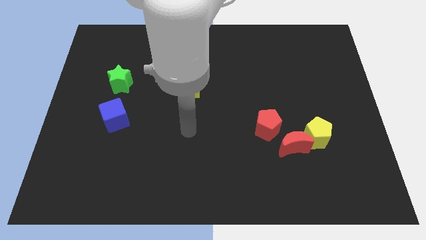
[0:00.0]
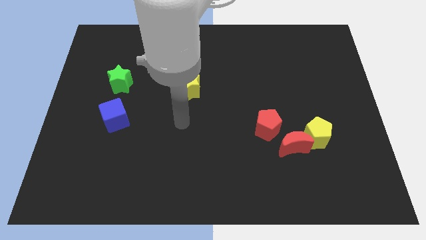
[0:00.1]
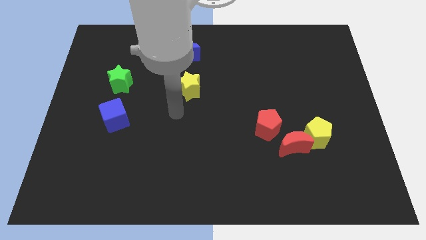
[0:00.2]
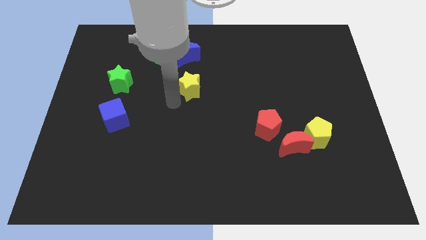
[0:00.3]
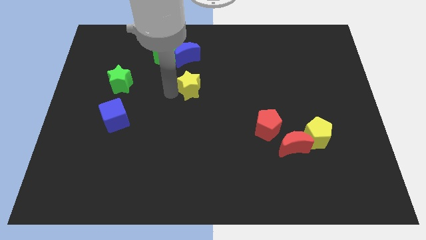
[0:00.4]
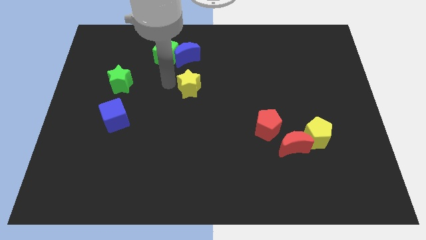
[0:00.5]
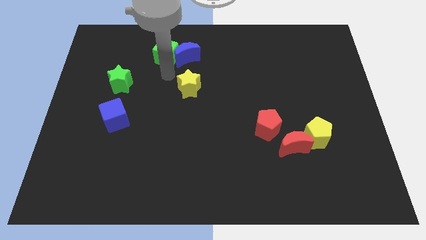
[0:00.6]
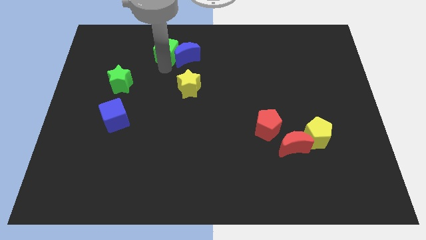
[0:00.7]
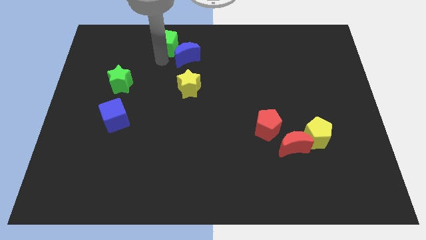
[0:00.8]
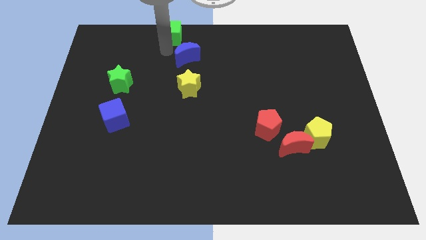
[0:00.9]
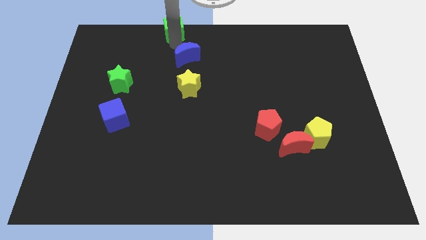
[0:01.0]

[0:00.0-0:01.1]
move the blue moon away from the green cube

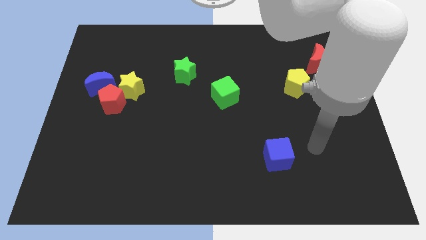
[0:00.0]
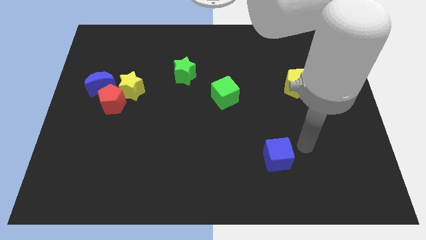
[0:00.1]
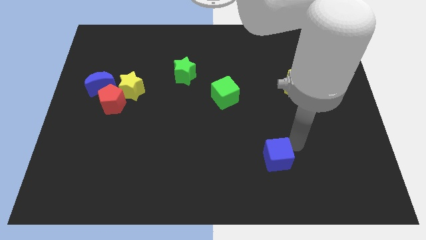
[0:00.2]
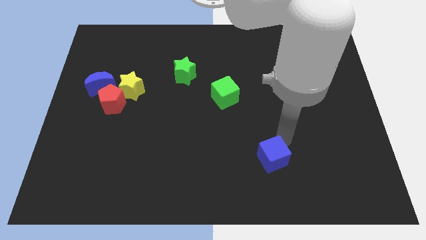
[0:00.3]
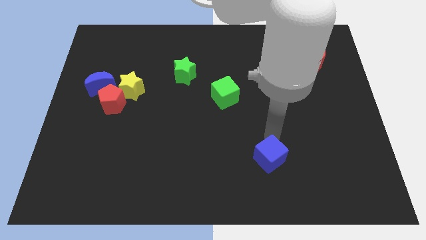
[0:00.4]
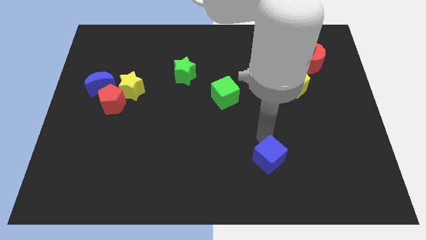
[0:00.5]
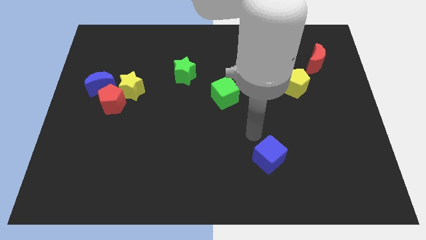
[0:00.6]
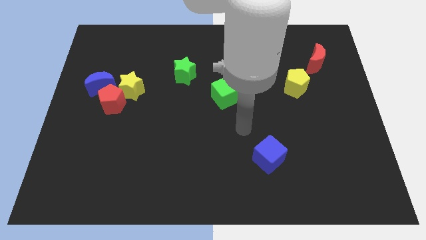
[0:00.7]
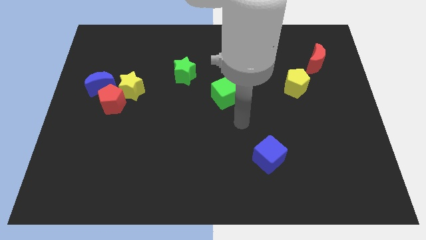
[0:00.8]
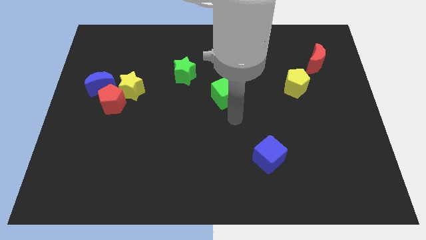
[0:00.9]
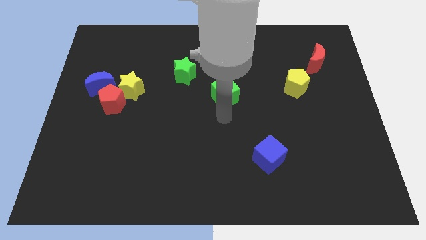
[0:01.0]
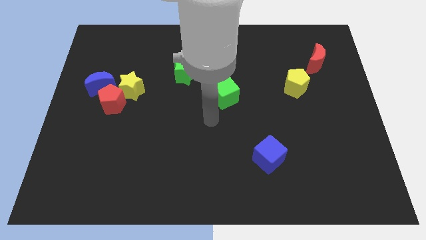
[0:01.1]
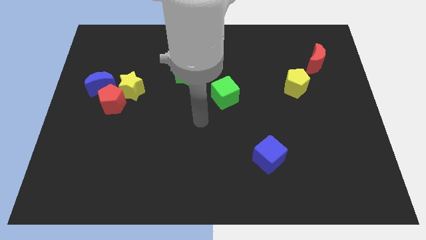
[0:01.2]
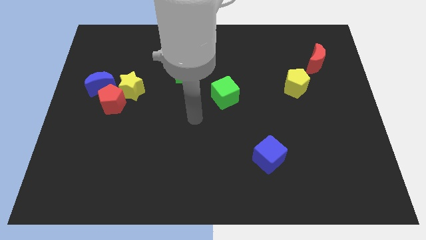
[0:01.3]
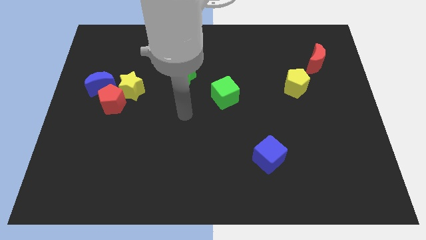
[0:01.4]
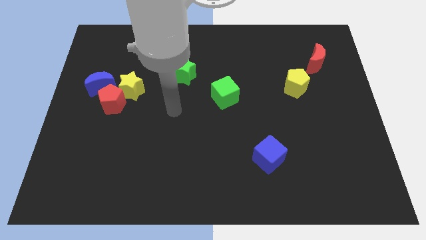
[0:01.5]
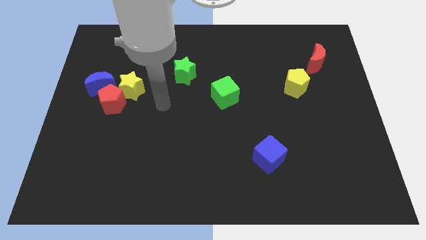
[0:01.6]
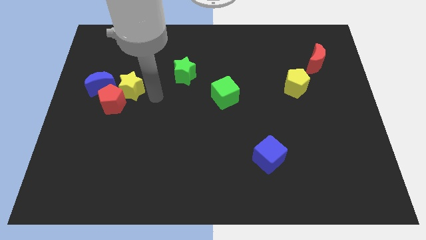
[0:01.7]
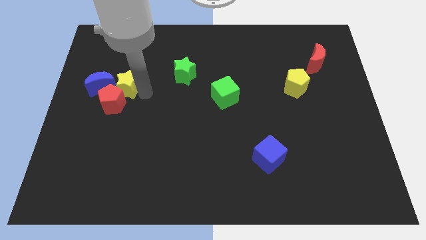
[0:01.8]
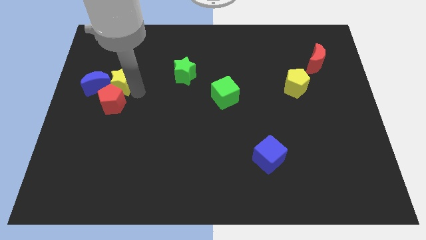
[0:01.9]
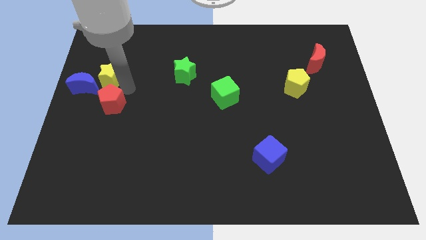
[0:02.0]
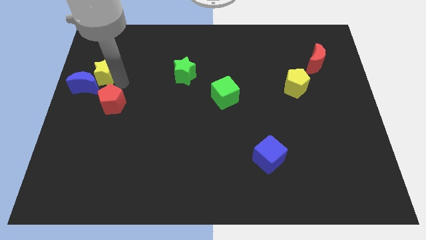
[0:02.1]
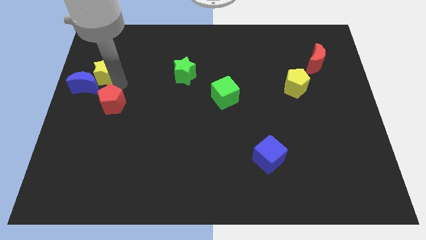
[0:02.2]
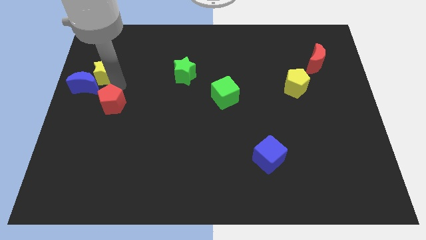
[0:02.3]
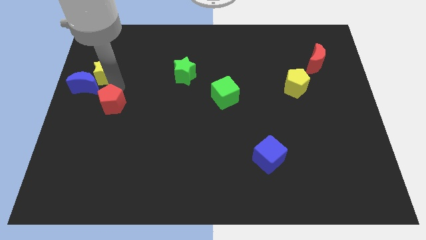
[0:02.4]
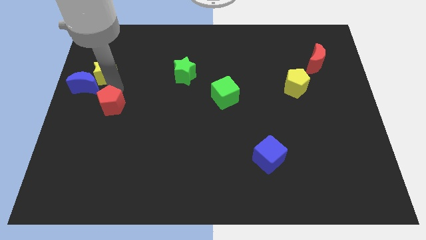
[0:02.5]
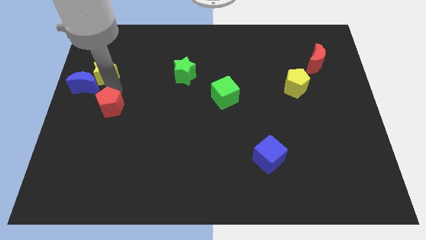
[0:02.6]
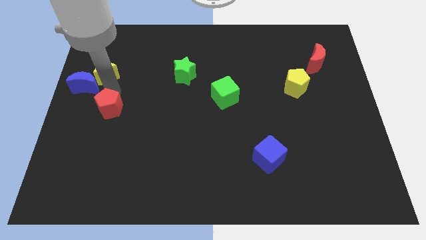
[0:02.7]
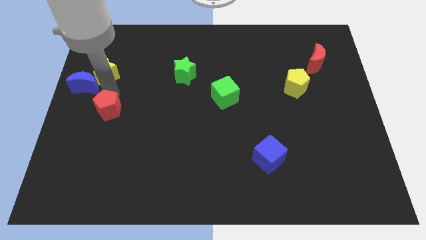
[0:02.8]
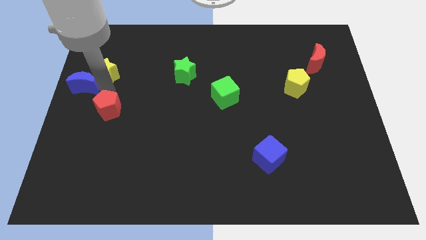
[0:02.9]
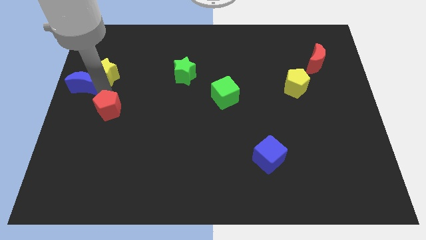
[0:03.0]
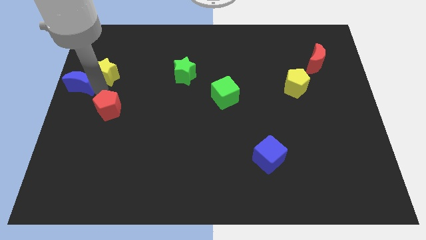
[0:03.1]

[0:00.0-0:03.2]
move the red pentagon away from the yellow star and blue moon

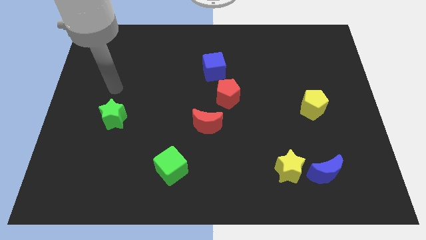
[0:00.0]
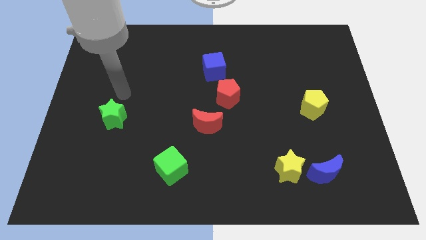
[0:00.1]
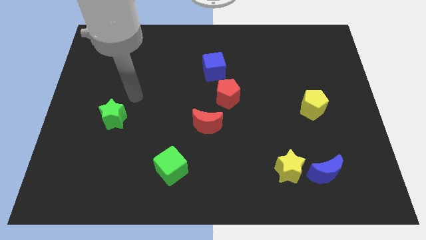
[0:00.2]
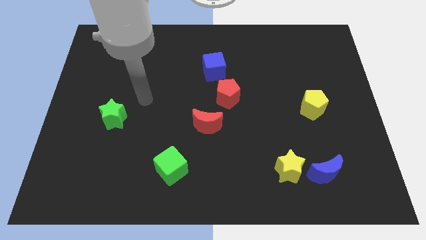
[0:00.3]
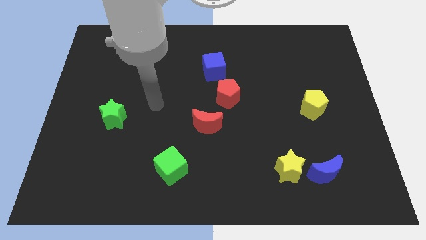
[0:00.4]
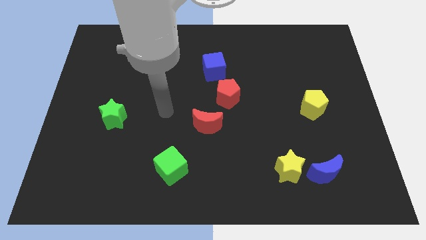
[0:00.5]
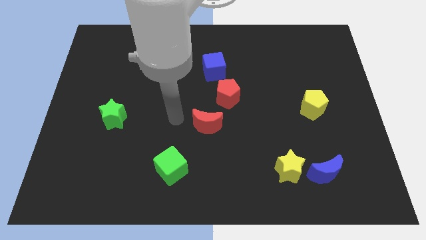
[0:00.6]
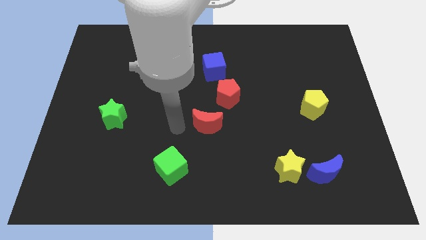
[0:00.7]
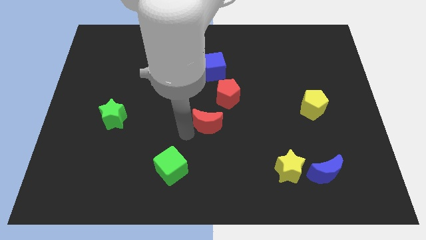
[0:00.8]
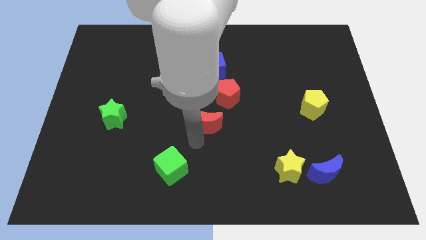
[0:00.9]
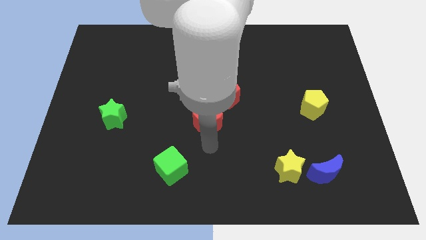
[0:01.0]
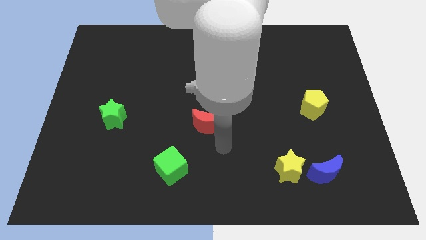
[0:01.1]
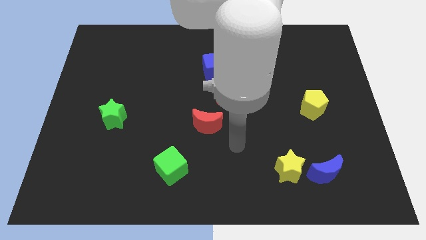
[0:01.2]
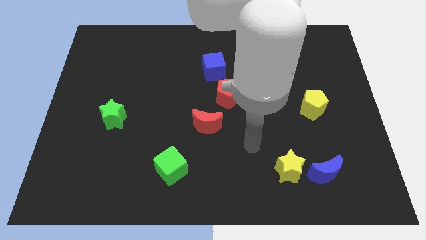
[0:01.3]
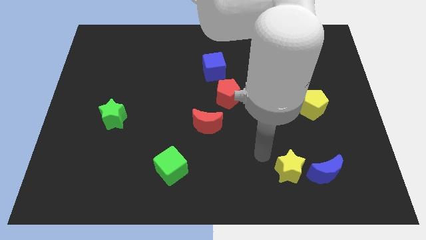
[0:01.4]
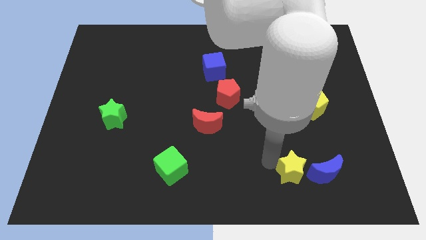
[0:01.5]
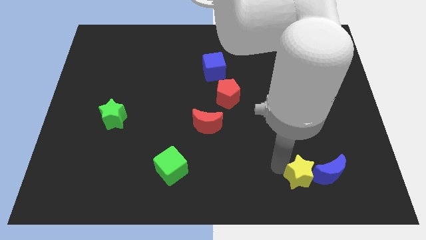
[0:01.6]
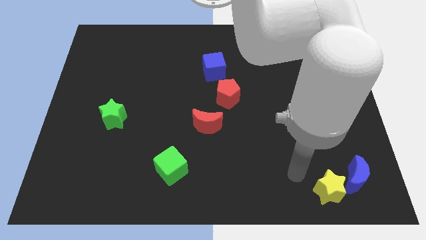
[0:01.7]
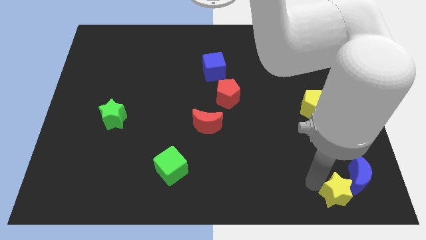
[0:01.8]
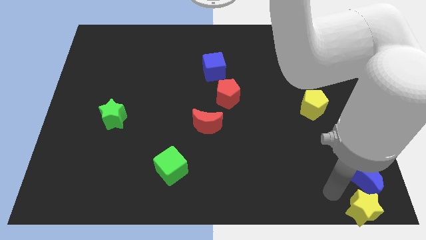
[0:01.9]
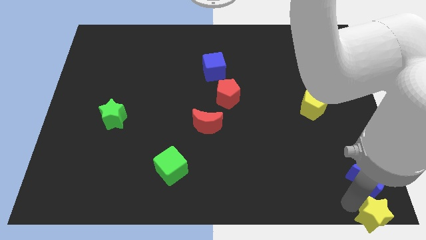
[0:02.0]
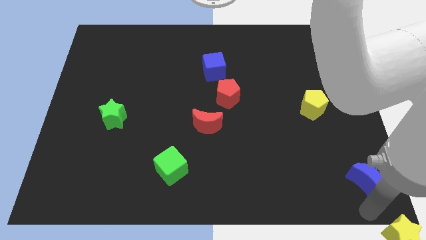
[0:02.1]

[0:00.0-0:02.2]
move the blue moon away from the yellow star

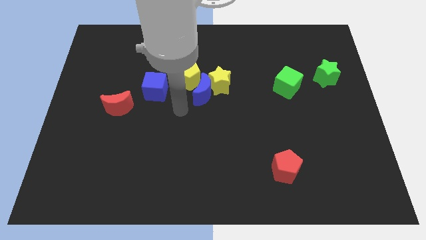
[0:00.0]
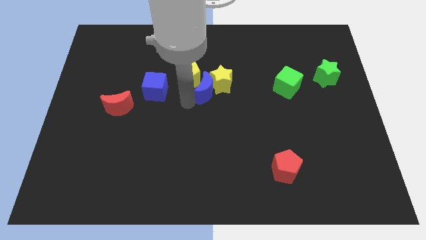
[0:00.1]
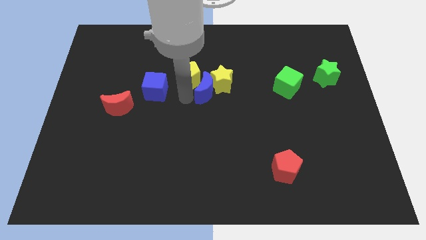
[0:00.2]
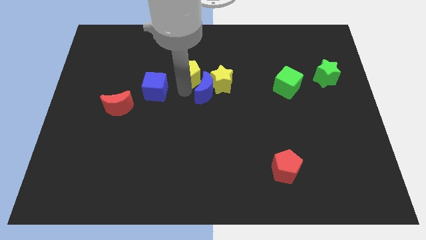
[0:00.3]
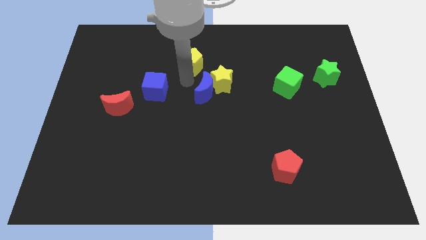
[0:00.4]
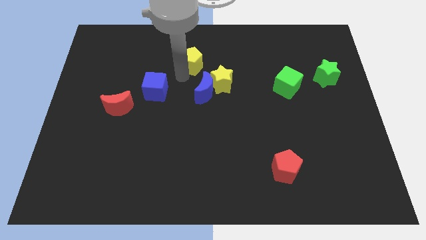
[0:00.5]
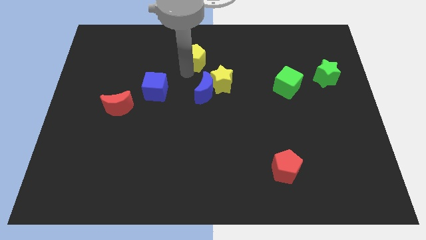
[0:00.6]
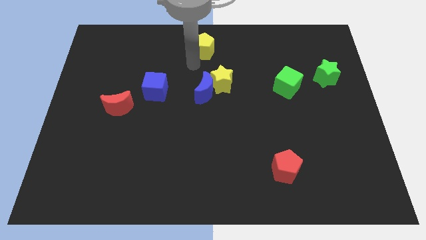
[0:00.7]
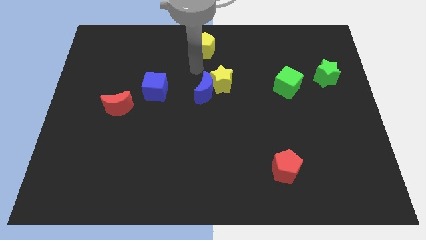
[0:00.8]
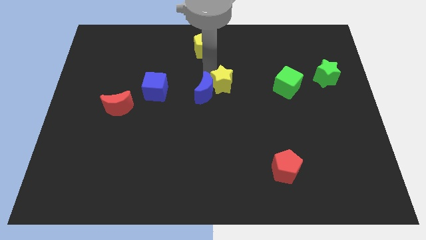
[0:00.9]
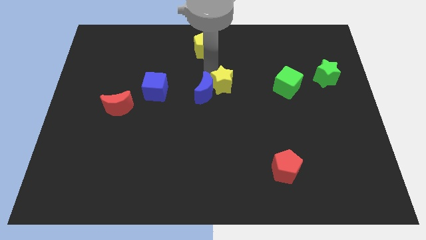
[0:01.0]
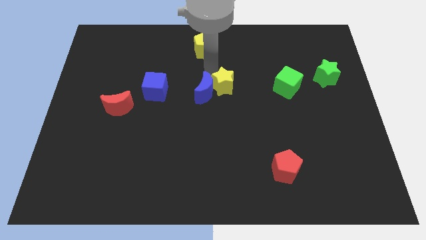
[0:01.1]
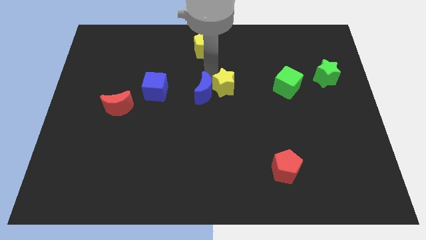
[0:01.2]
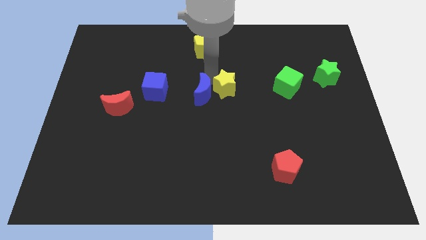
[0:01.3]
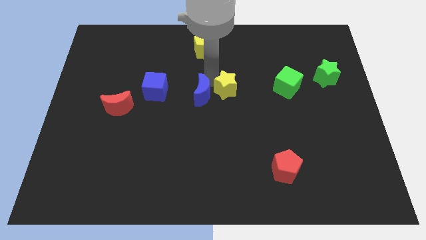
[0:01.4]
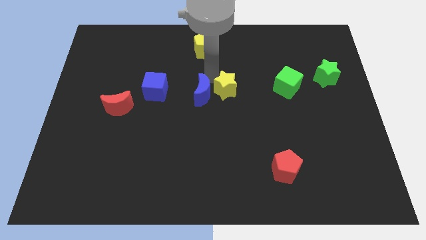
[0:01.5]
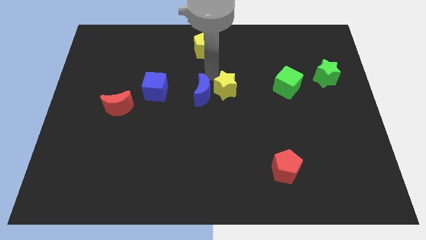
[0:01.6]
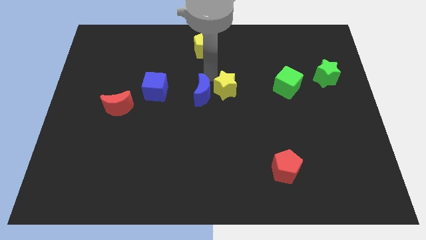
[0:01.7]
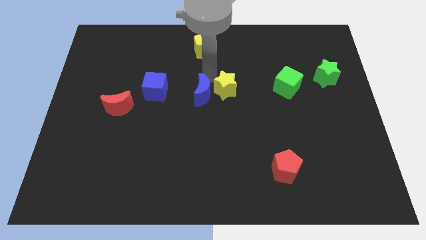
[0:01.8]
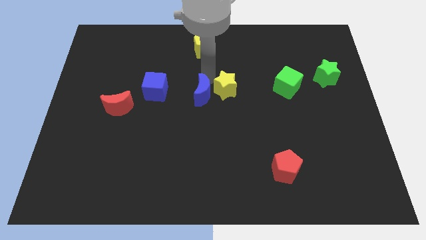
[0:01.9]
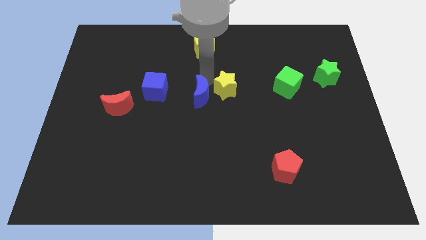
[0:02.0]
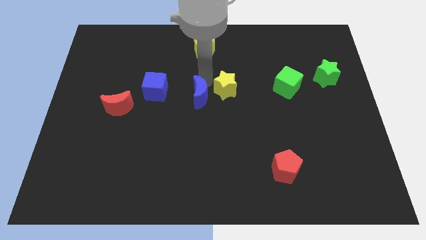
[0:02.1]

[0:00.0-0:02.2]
pull the blue moon apart from the yellow star and yellow pentagon

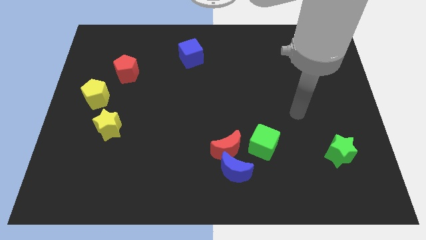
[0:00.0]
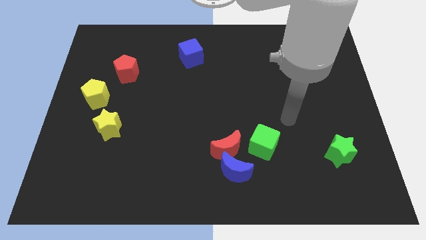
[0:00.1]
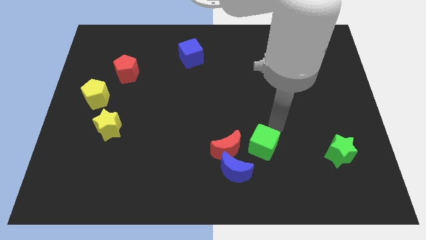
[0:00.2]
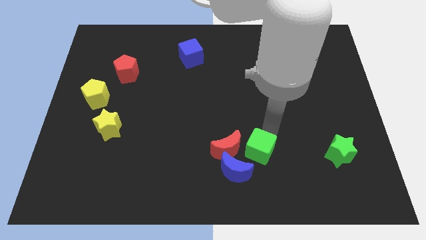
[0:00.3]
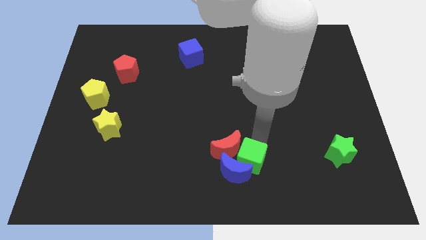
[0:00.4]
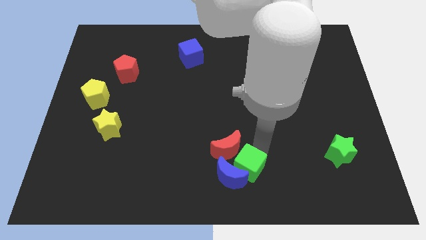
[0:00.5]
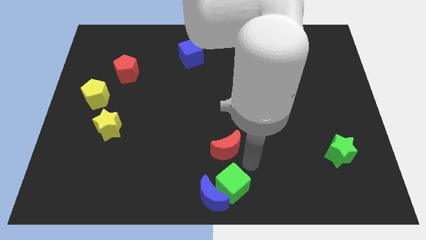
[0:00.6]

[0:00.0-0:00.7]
separate the red moon from the blue moon and green cube
